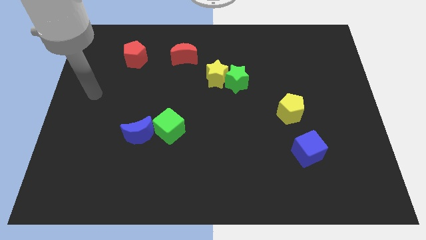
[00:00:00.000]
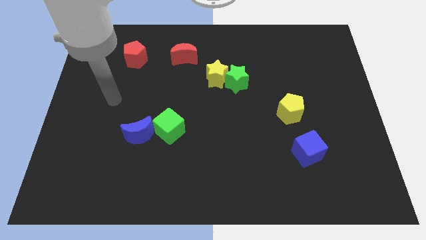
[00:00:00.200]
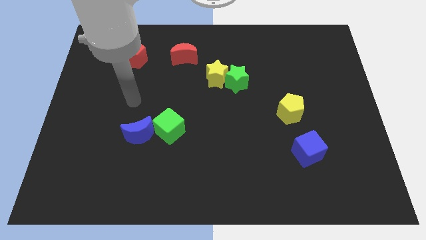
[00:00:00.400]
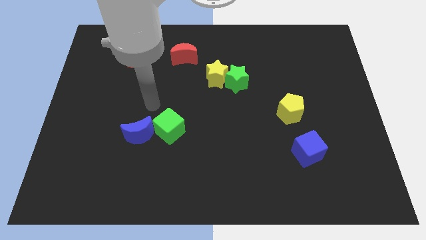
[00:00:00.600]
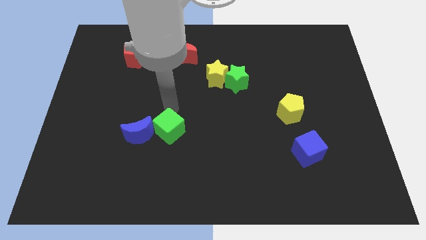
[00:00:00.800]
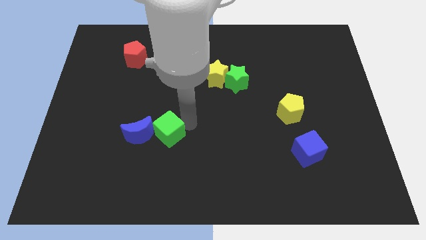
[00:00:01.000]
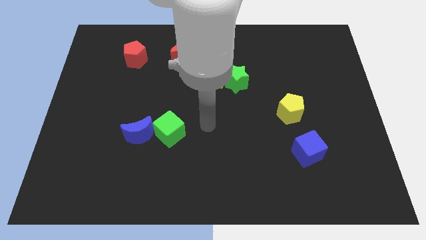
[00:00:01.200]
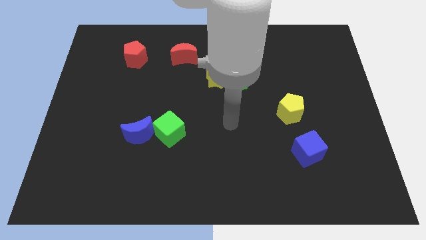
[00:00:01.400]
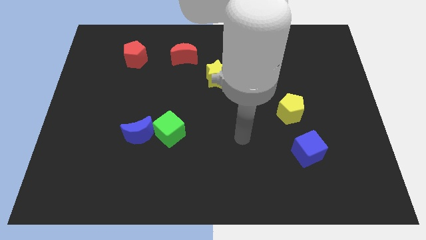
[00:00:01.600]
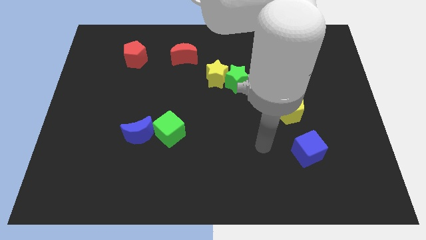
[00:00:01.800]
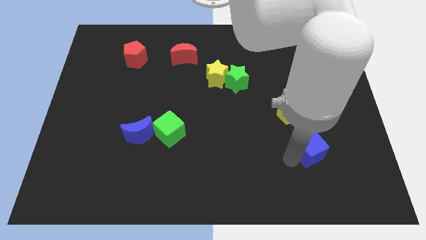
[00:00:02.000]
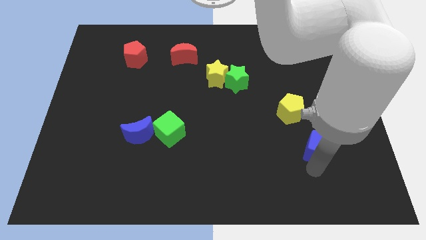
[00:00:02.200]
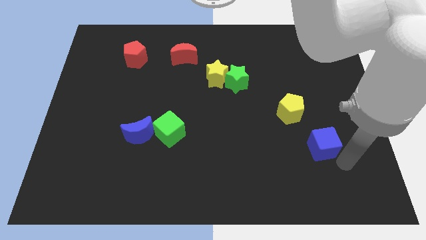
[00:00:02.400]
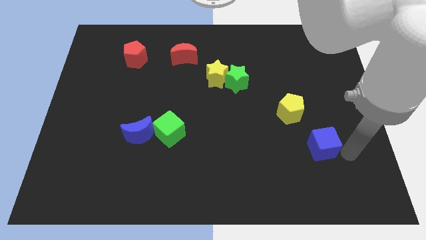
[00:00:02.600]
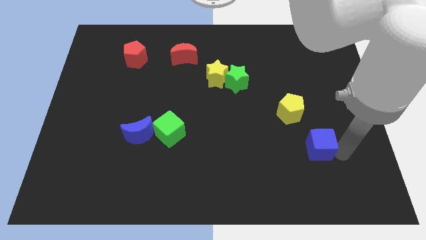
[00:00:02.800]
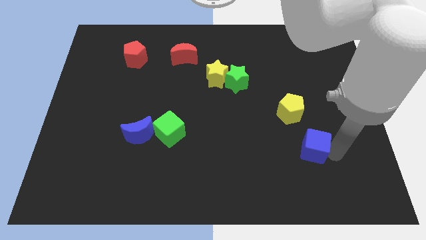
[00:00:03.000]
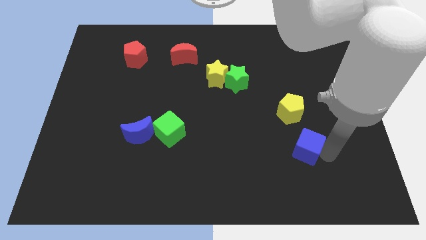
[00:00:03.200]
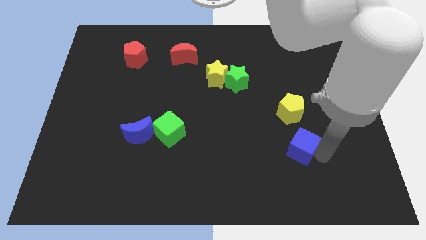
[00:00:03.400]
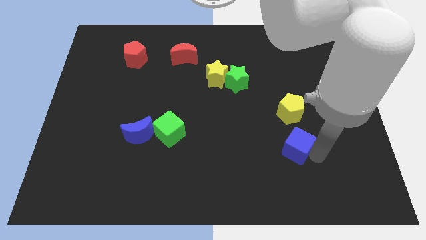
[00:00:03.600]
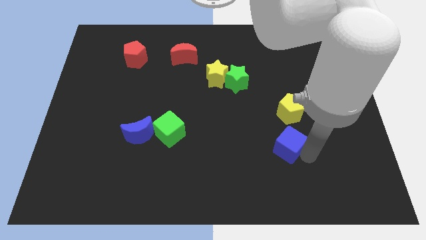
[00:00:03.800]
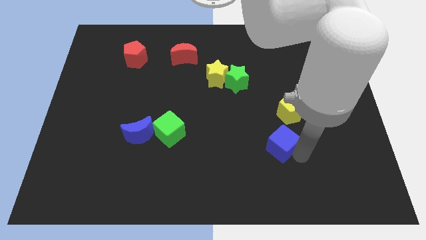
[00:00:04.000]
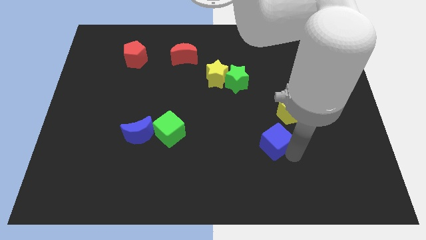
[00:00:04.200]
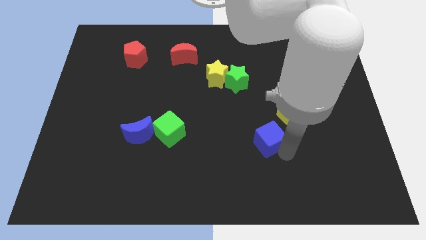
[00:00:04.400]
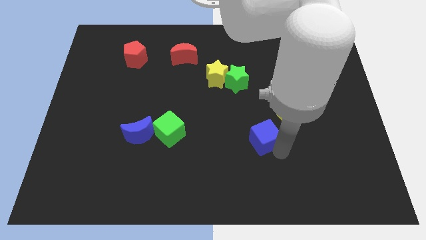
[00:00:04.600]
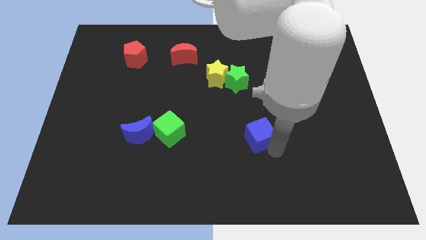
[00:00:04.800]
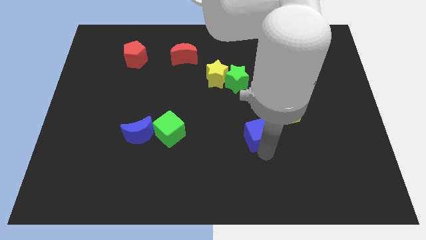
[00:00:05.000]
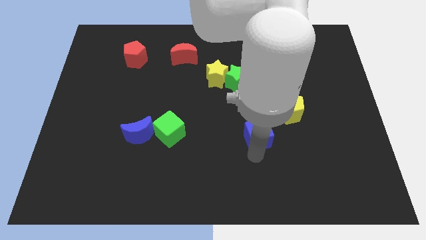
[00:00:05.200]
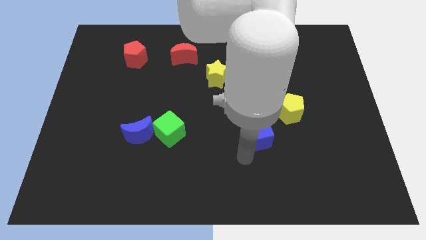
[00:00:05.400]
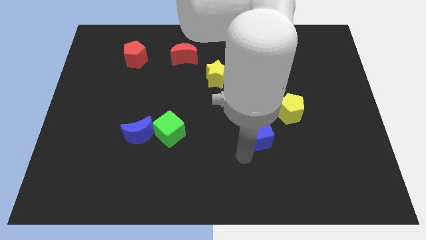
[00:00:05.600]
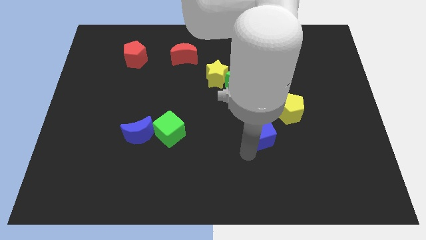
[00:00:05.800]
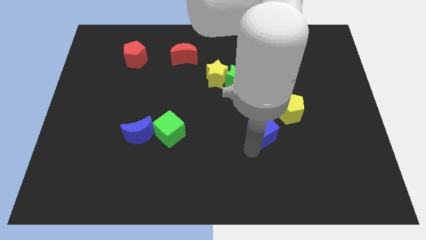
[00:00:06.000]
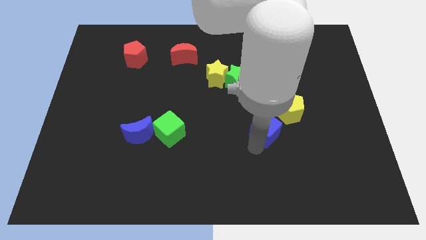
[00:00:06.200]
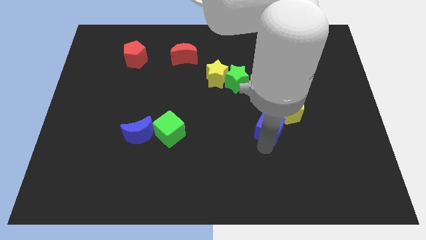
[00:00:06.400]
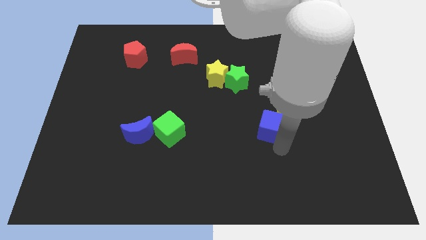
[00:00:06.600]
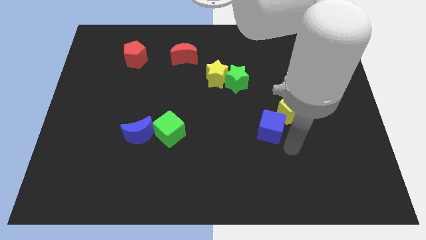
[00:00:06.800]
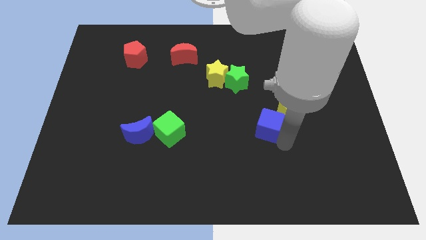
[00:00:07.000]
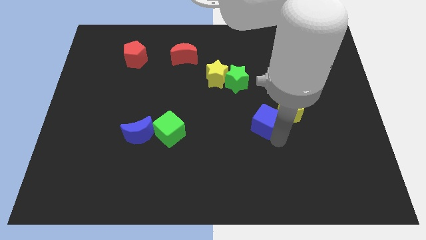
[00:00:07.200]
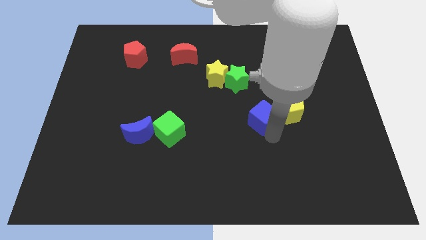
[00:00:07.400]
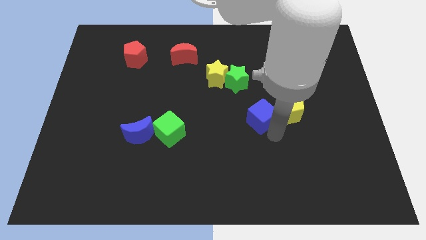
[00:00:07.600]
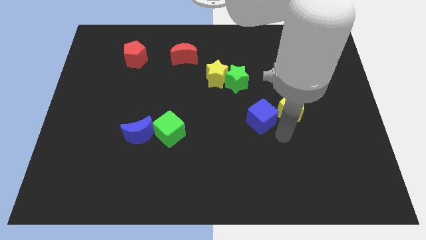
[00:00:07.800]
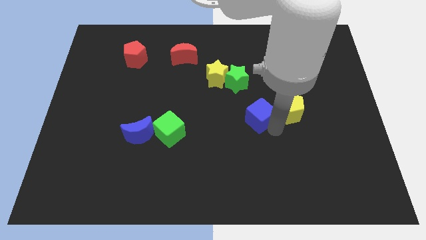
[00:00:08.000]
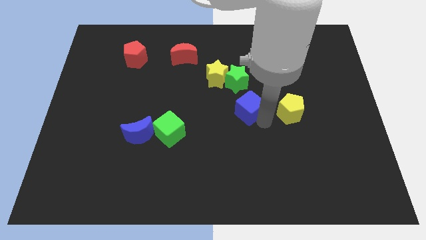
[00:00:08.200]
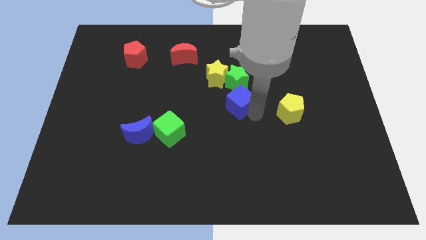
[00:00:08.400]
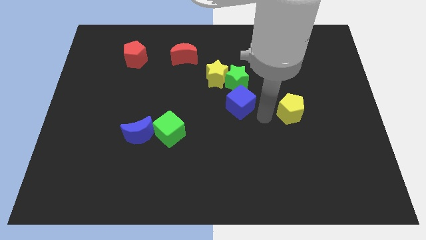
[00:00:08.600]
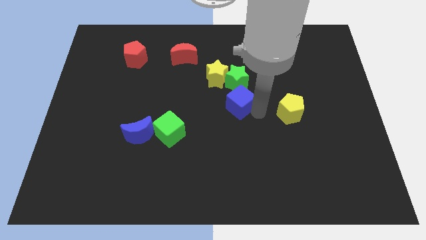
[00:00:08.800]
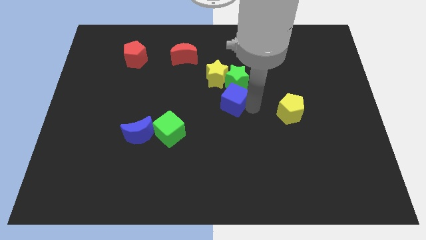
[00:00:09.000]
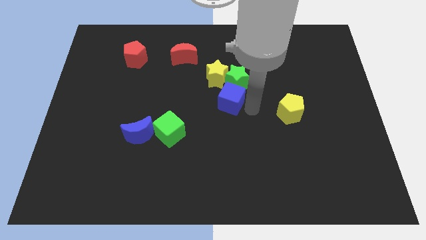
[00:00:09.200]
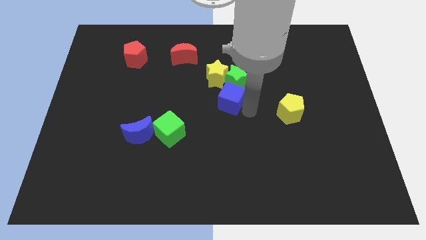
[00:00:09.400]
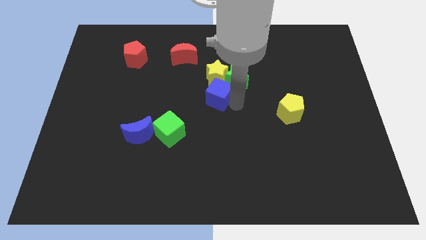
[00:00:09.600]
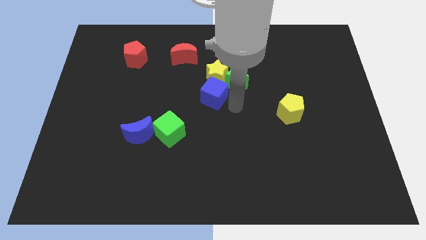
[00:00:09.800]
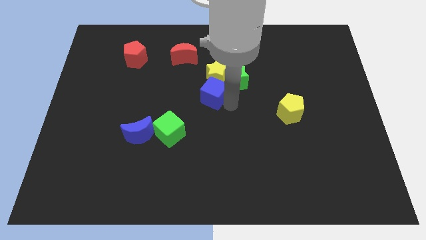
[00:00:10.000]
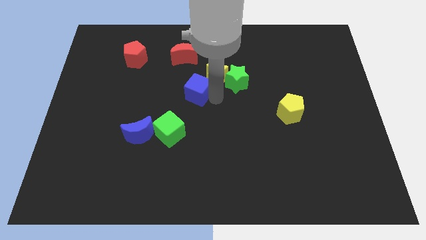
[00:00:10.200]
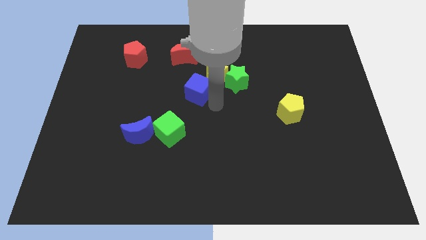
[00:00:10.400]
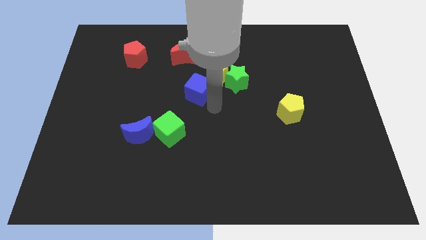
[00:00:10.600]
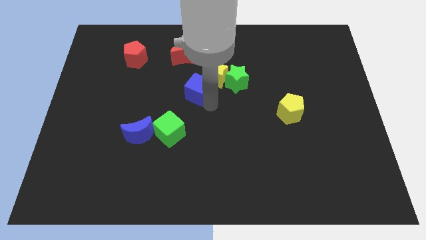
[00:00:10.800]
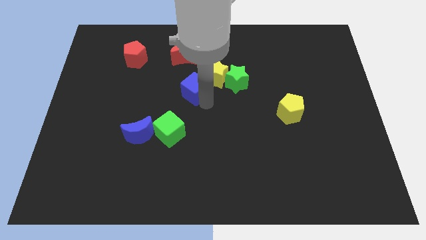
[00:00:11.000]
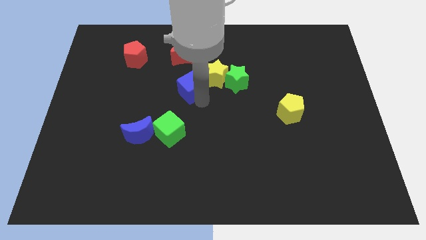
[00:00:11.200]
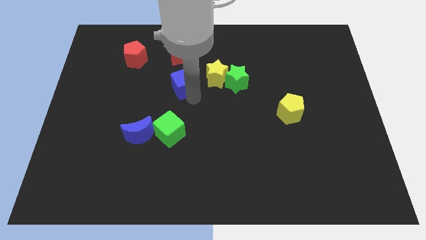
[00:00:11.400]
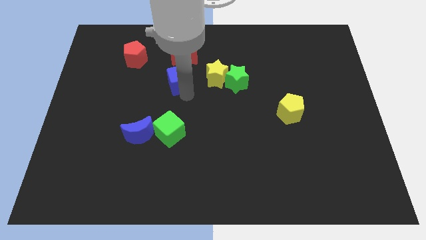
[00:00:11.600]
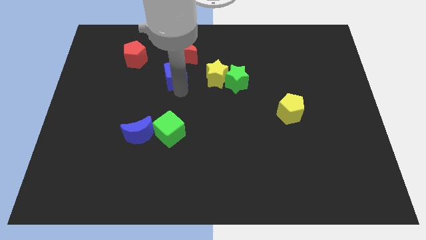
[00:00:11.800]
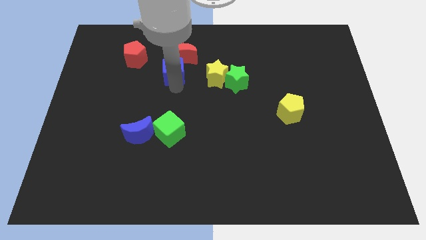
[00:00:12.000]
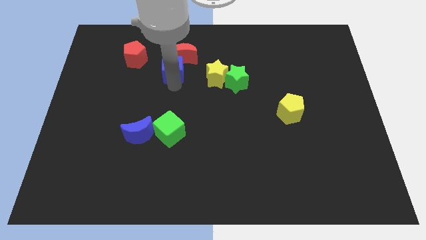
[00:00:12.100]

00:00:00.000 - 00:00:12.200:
slide the blue cube to the red moon
